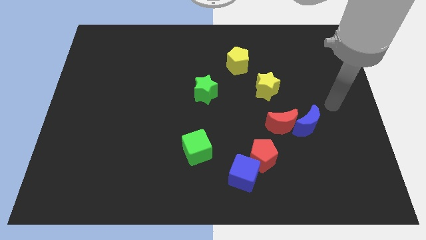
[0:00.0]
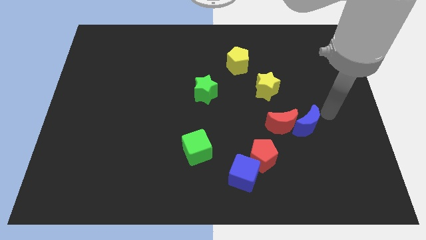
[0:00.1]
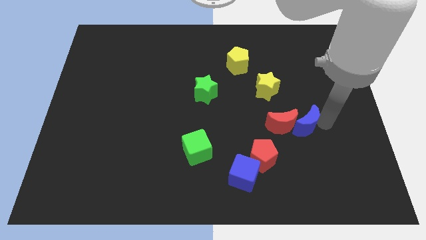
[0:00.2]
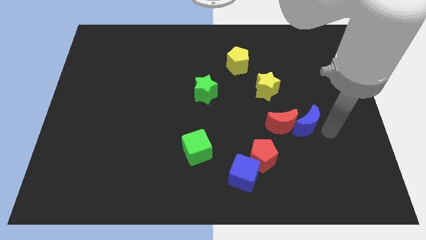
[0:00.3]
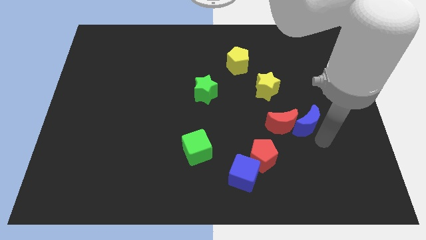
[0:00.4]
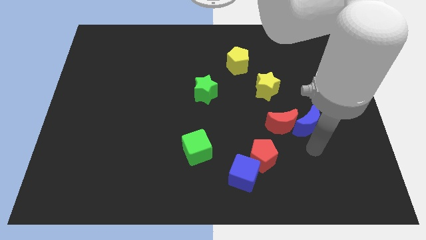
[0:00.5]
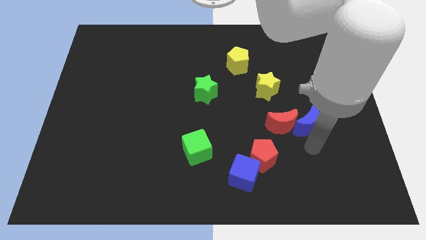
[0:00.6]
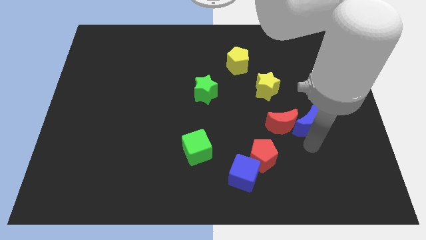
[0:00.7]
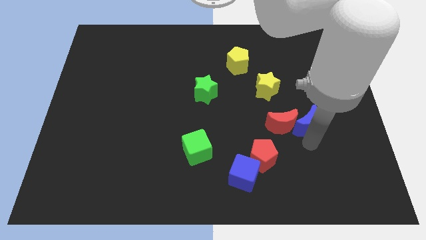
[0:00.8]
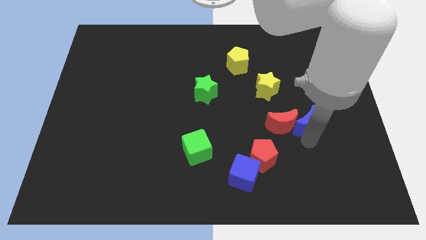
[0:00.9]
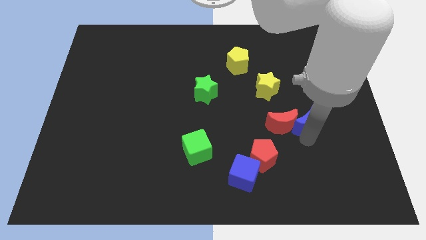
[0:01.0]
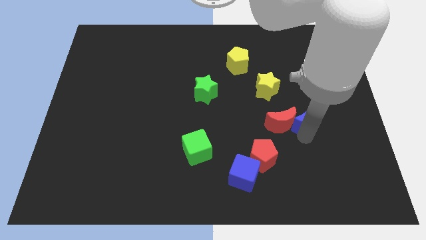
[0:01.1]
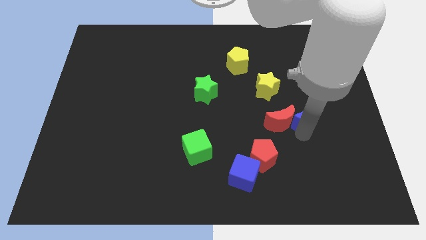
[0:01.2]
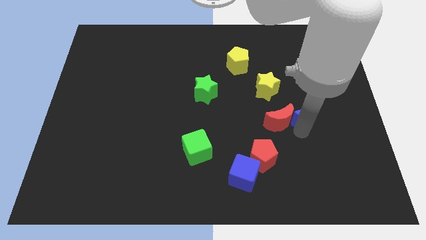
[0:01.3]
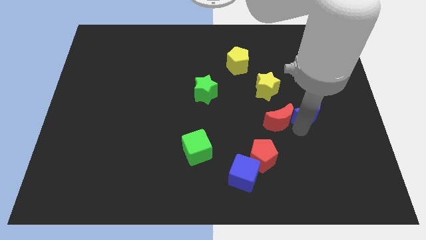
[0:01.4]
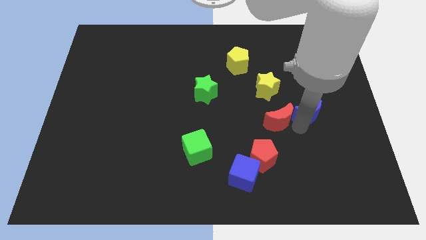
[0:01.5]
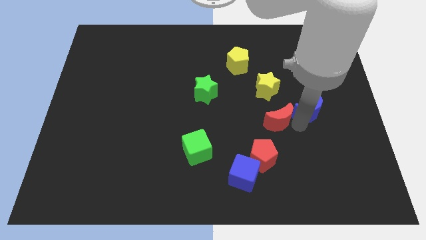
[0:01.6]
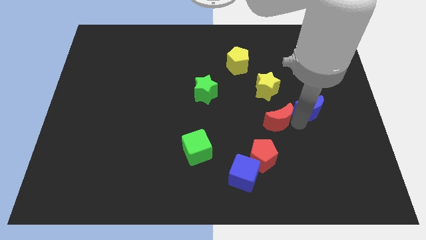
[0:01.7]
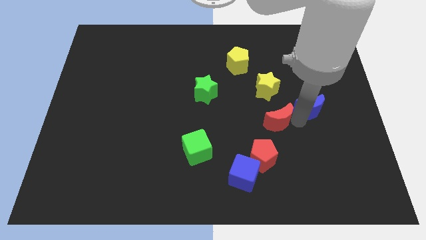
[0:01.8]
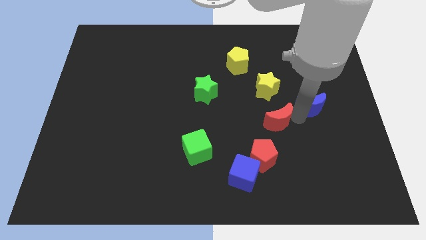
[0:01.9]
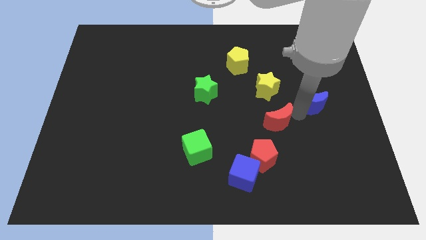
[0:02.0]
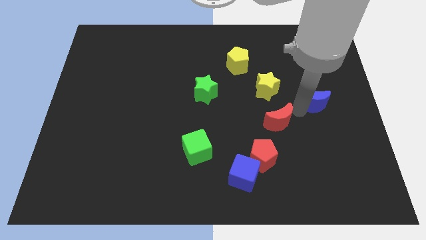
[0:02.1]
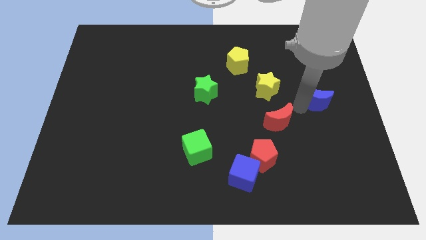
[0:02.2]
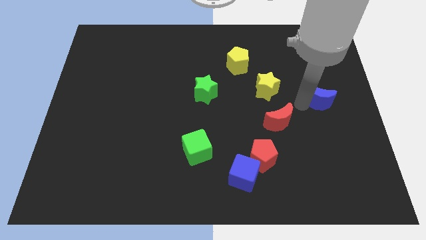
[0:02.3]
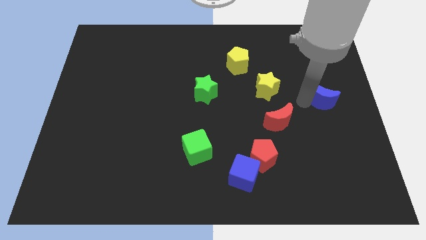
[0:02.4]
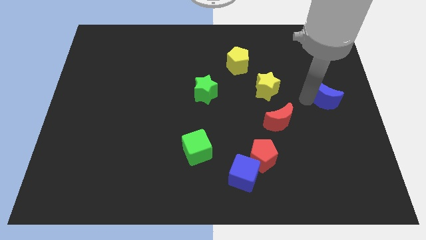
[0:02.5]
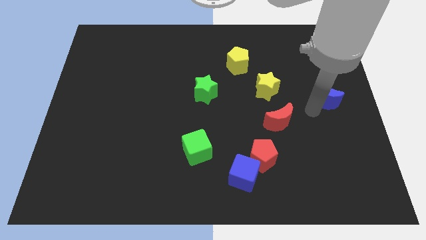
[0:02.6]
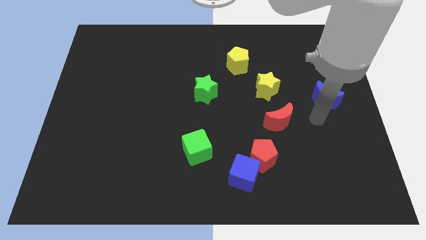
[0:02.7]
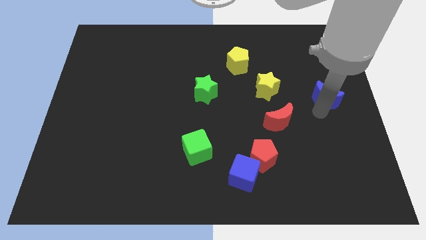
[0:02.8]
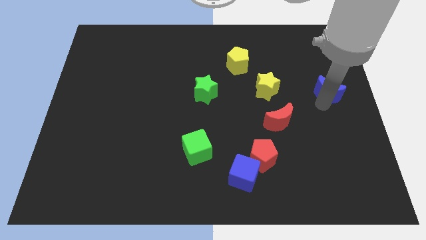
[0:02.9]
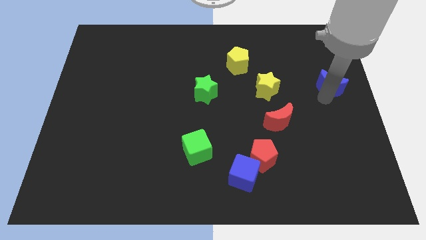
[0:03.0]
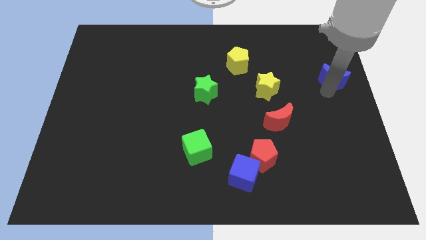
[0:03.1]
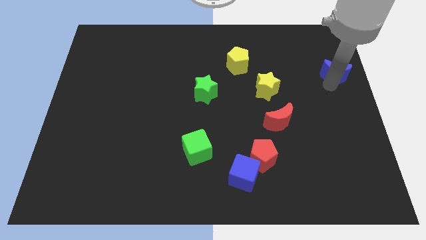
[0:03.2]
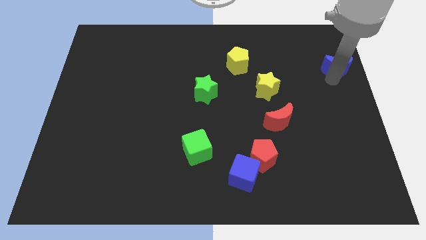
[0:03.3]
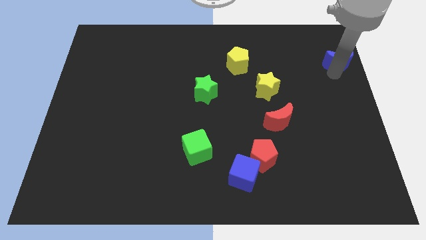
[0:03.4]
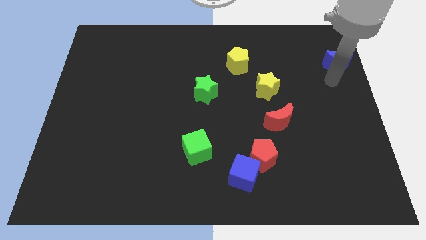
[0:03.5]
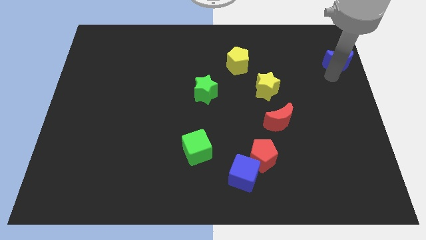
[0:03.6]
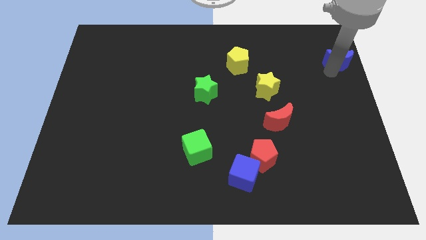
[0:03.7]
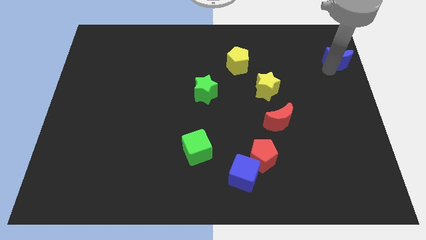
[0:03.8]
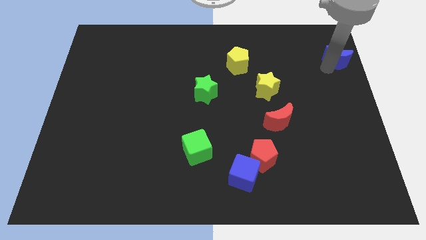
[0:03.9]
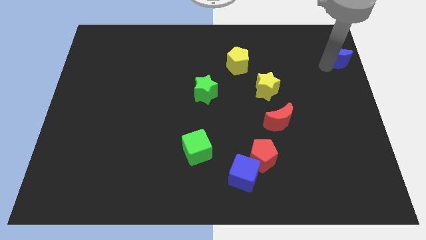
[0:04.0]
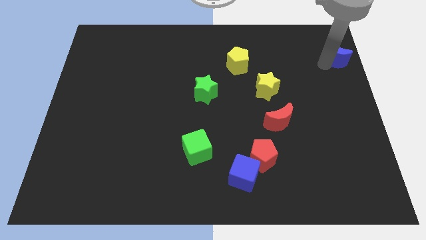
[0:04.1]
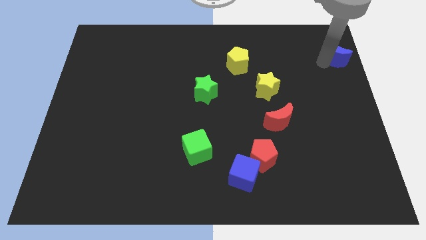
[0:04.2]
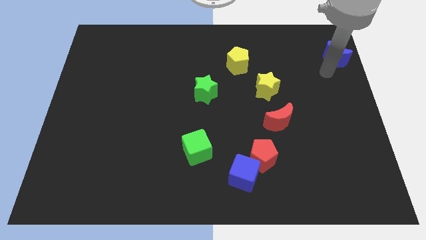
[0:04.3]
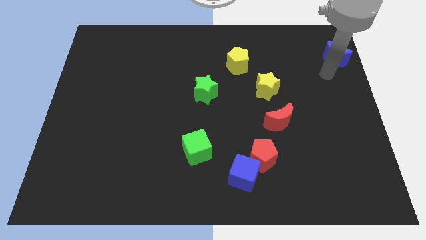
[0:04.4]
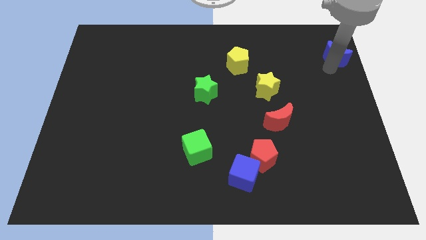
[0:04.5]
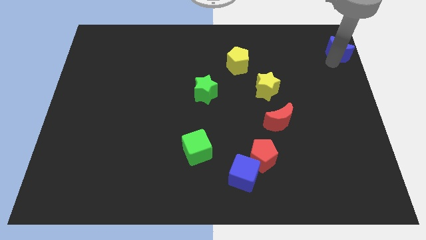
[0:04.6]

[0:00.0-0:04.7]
slide the blue moon to the top right of the board

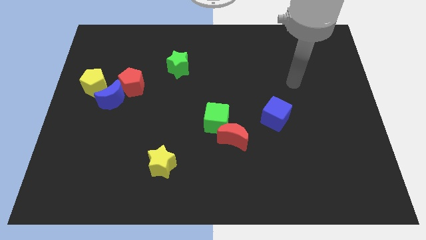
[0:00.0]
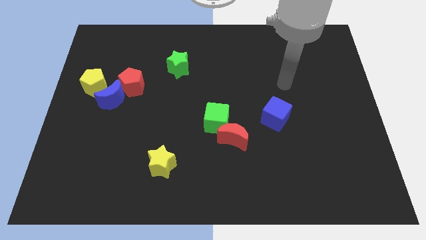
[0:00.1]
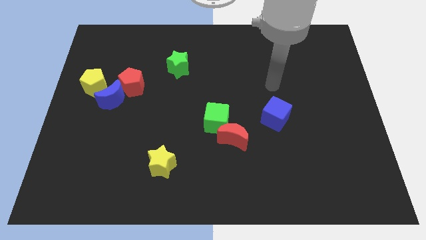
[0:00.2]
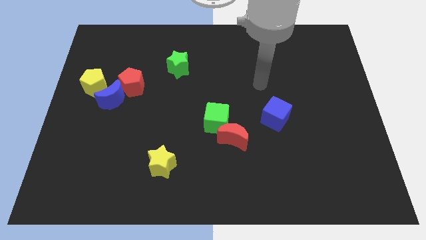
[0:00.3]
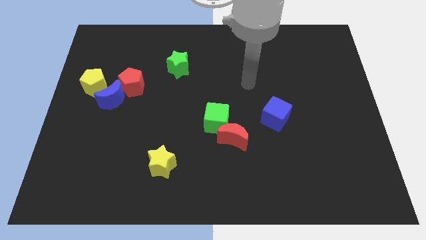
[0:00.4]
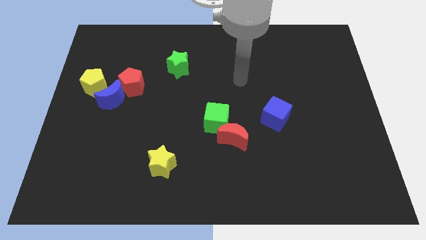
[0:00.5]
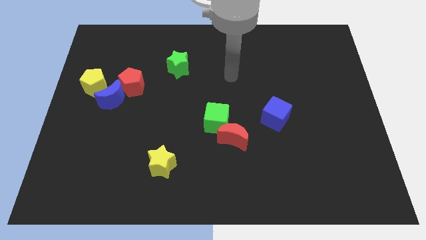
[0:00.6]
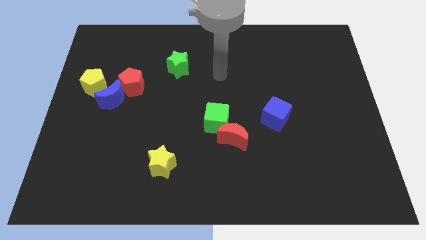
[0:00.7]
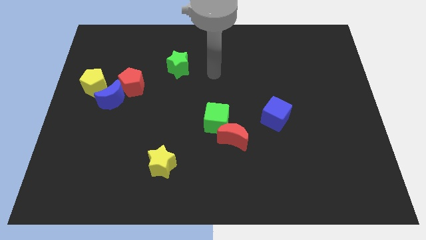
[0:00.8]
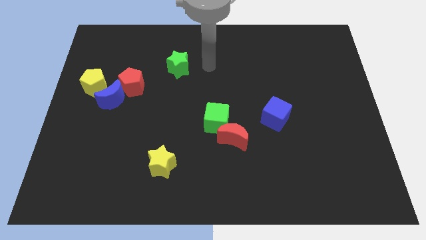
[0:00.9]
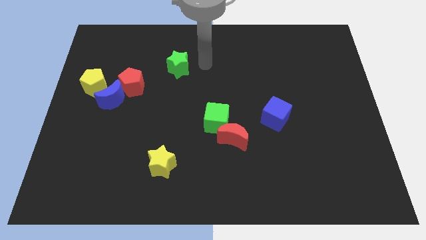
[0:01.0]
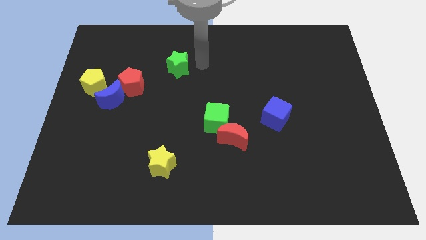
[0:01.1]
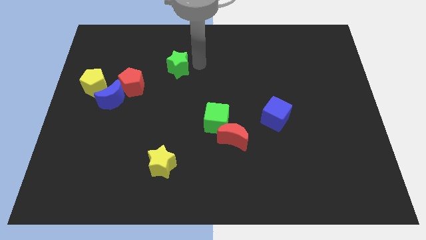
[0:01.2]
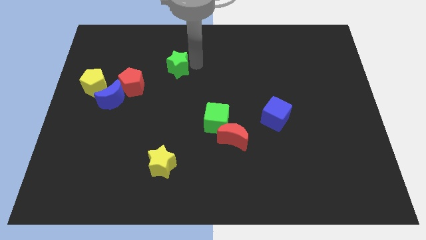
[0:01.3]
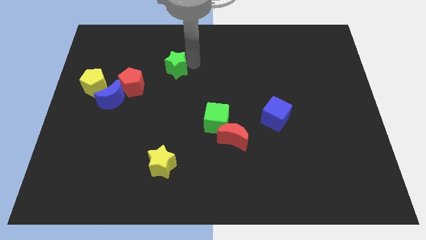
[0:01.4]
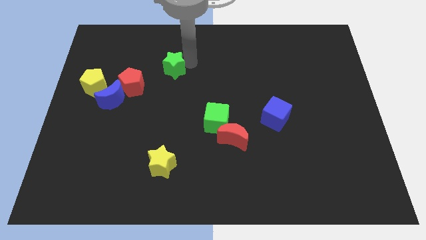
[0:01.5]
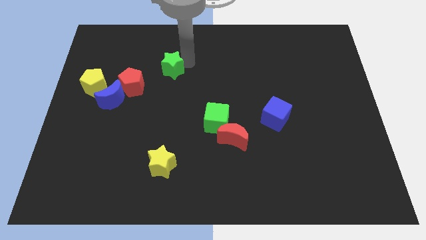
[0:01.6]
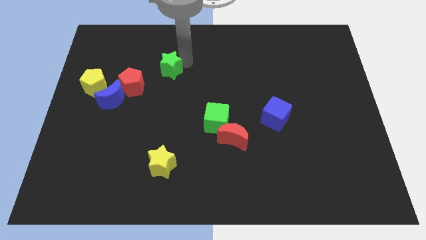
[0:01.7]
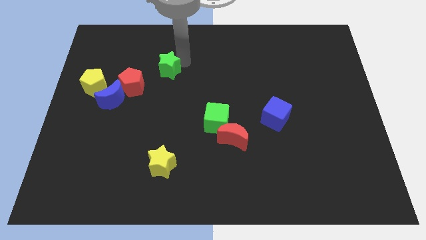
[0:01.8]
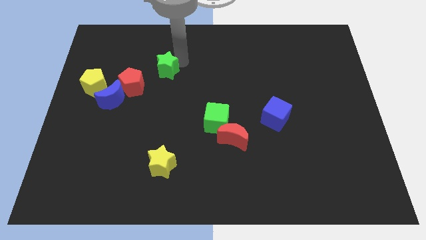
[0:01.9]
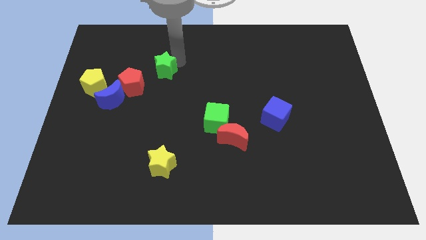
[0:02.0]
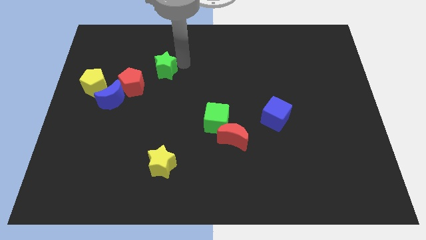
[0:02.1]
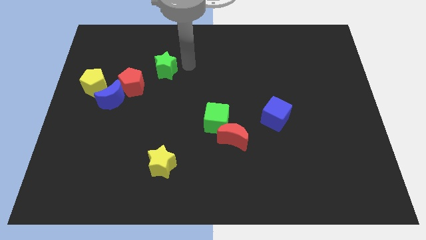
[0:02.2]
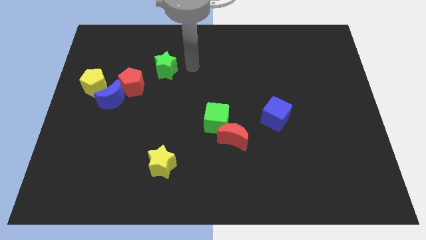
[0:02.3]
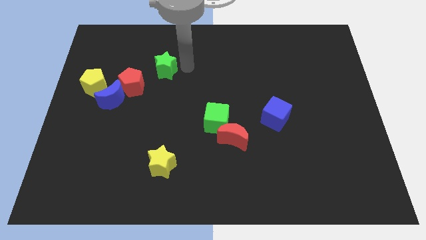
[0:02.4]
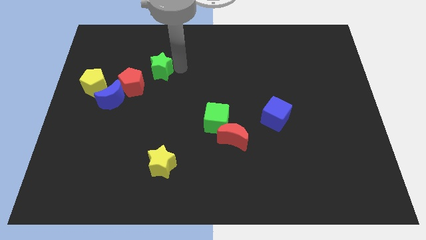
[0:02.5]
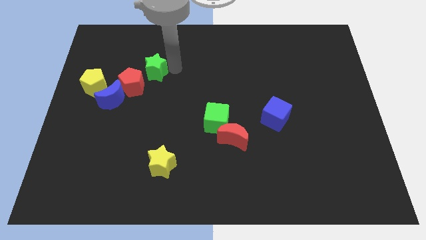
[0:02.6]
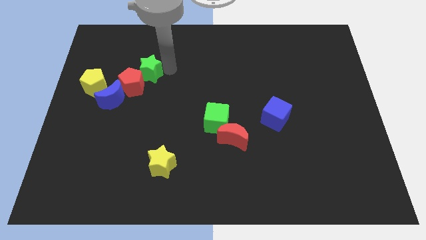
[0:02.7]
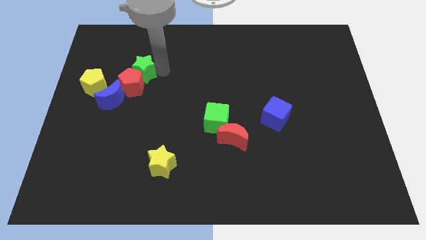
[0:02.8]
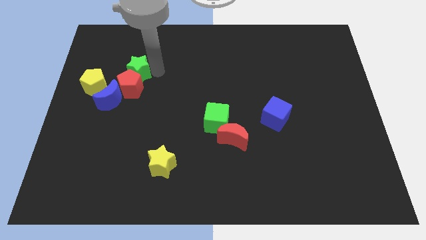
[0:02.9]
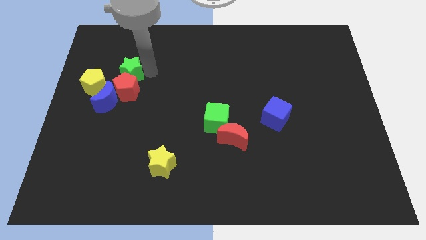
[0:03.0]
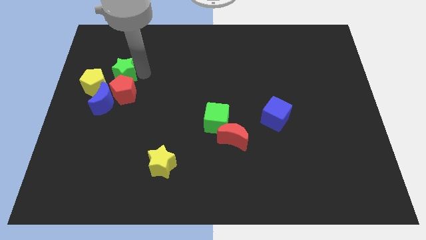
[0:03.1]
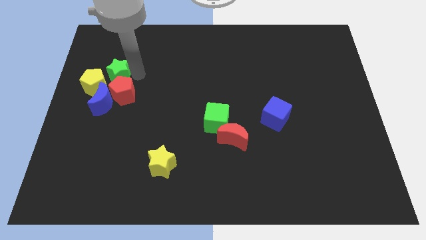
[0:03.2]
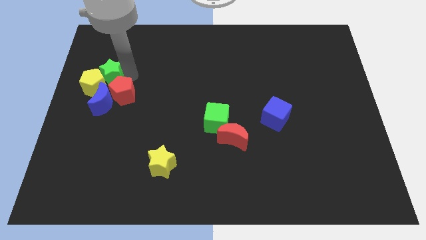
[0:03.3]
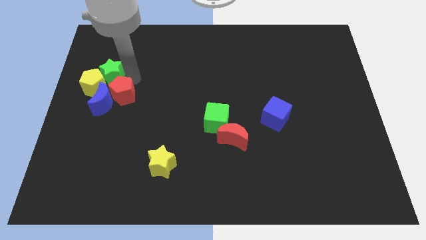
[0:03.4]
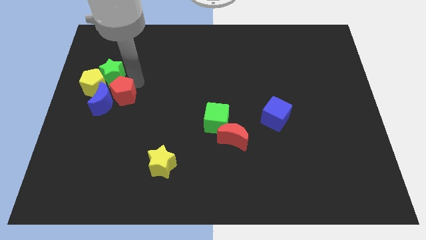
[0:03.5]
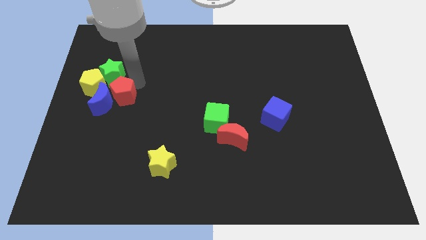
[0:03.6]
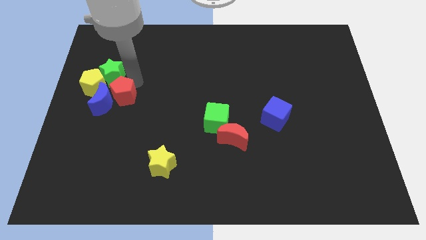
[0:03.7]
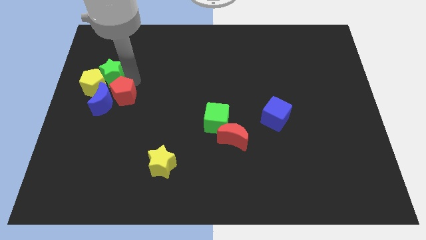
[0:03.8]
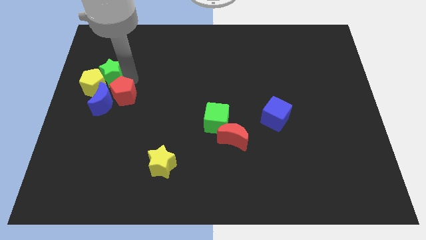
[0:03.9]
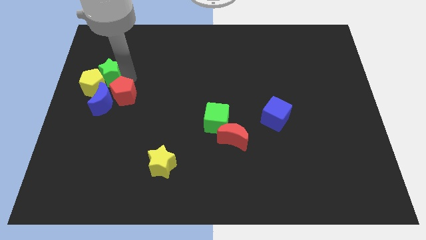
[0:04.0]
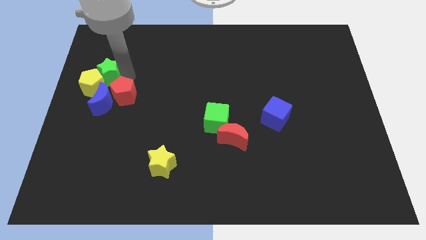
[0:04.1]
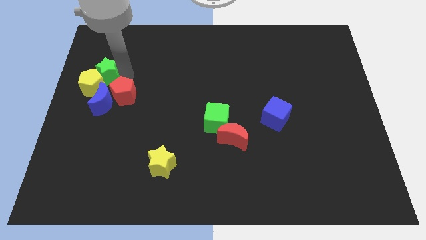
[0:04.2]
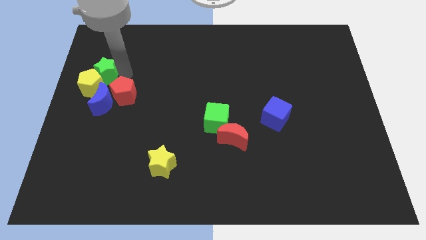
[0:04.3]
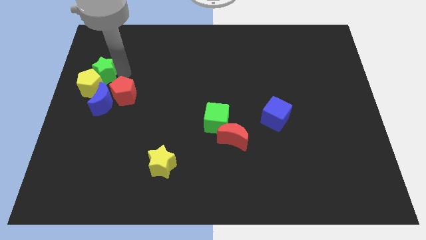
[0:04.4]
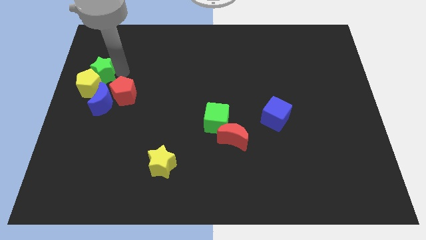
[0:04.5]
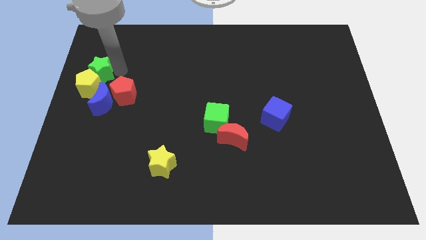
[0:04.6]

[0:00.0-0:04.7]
put the green star to the left side
